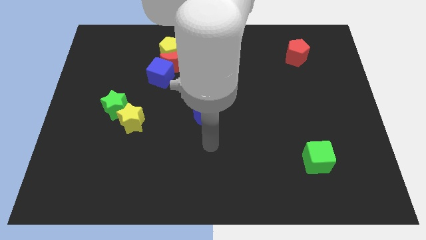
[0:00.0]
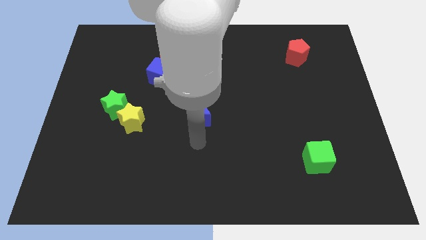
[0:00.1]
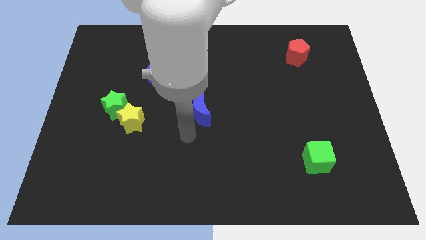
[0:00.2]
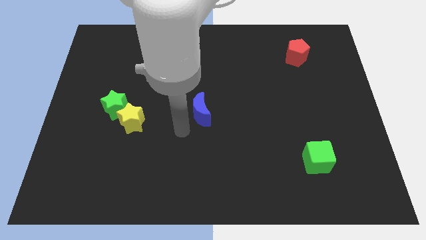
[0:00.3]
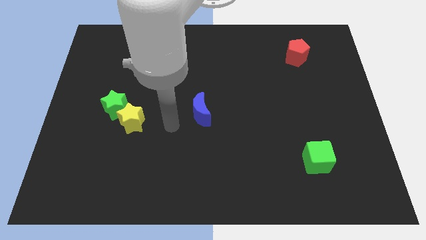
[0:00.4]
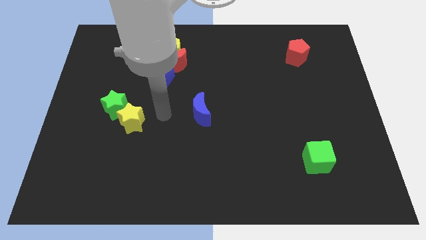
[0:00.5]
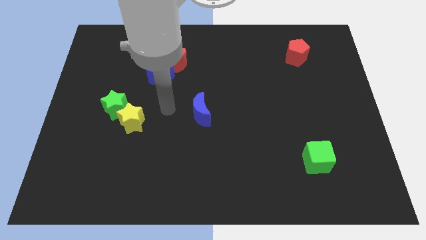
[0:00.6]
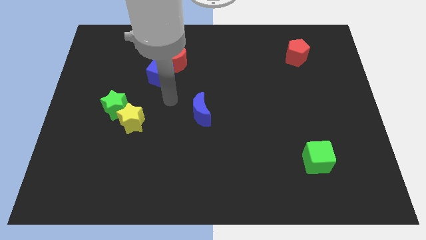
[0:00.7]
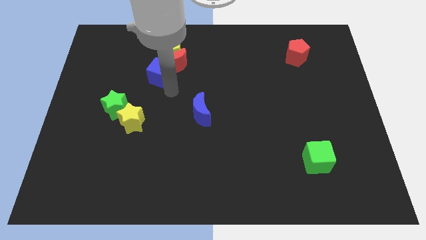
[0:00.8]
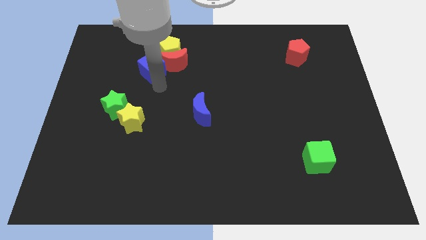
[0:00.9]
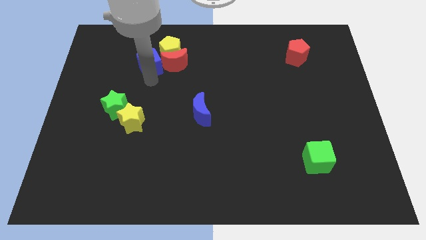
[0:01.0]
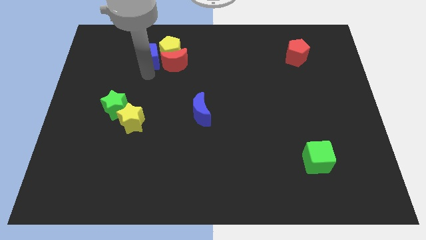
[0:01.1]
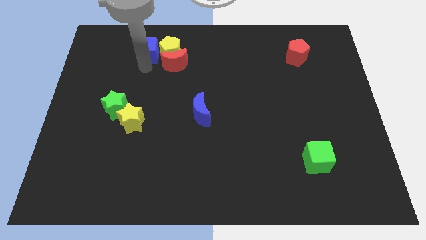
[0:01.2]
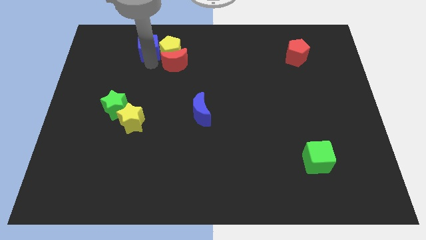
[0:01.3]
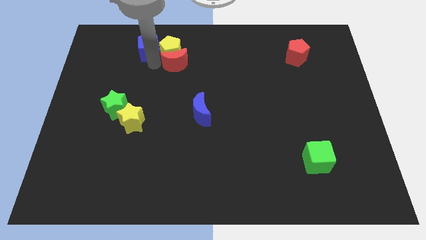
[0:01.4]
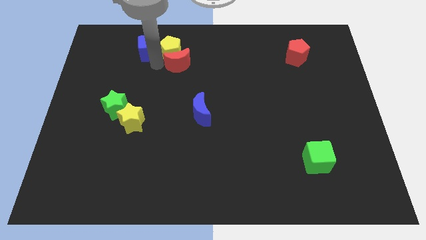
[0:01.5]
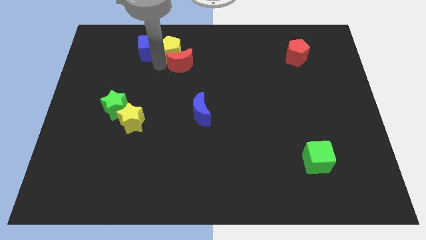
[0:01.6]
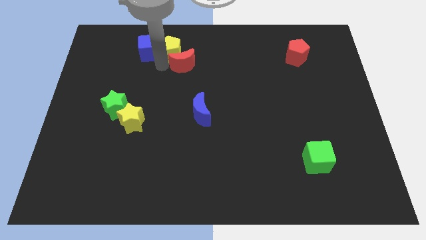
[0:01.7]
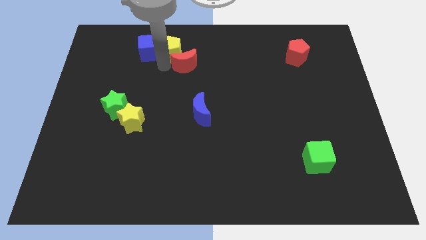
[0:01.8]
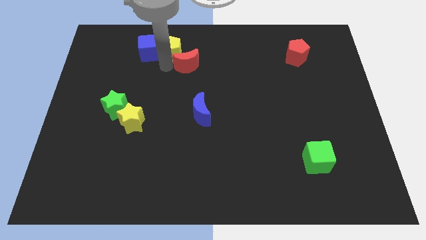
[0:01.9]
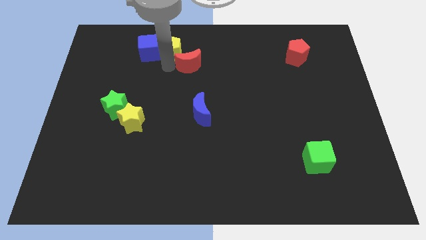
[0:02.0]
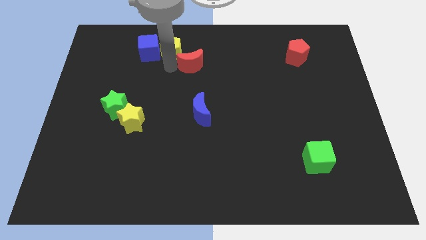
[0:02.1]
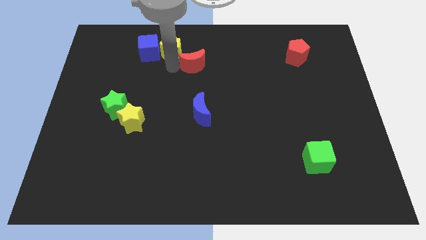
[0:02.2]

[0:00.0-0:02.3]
move the red moon away from the yellow pentagon and blue cube

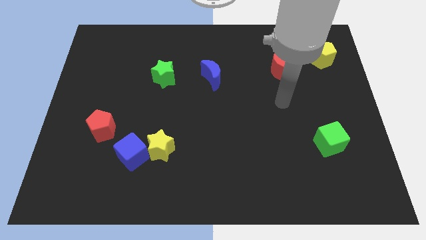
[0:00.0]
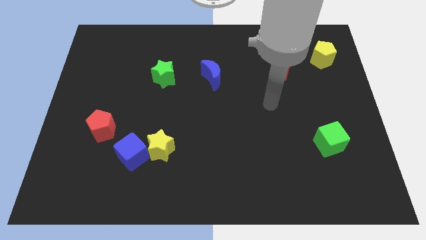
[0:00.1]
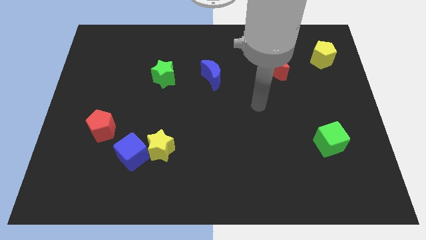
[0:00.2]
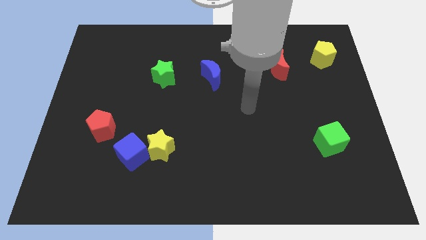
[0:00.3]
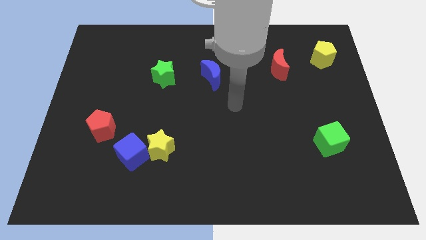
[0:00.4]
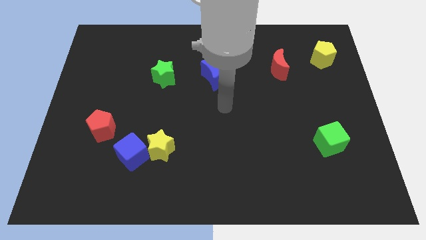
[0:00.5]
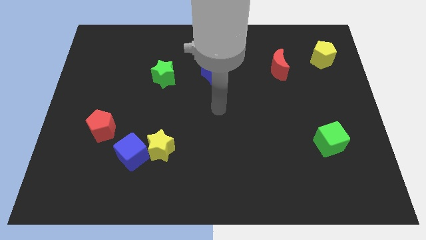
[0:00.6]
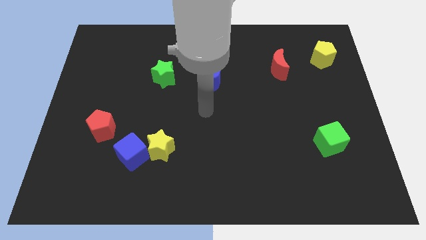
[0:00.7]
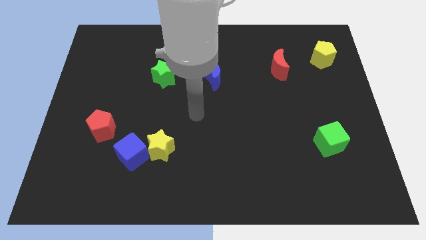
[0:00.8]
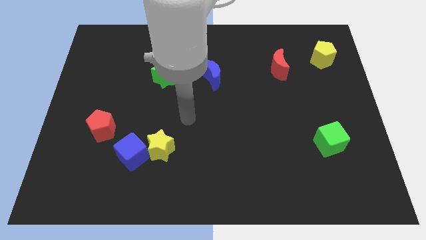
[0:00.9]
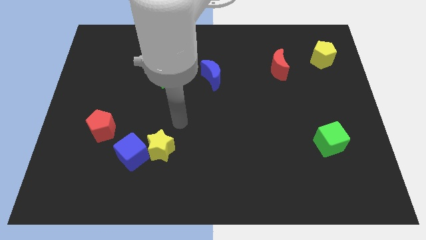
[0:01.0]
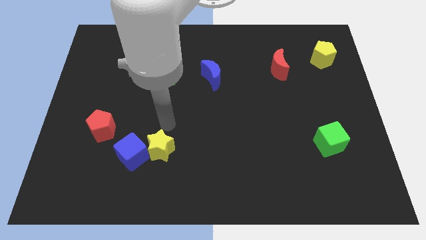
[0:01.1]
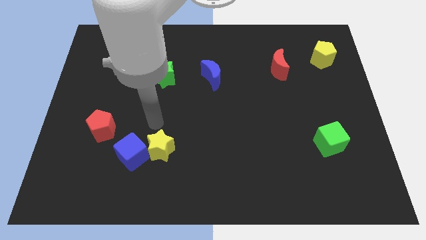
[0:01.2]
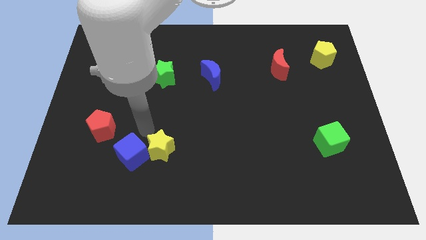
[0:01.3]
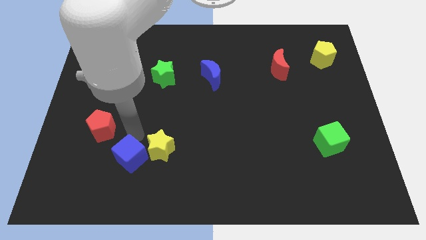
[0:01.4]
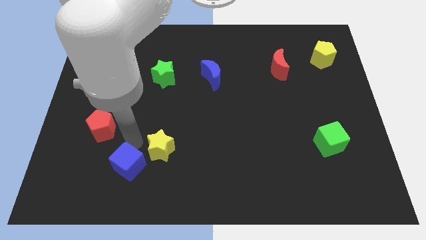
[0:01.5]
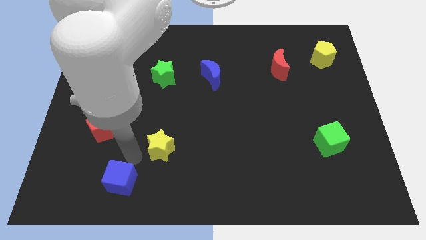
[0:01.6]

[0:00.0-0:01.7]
pull the yellow star apart from the blue cube

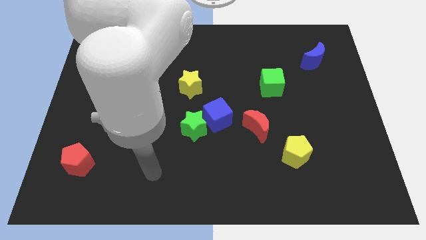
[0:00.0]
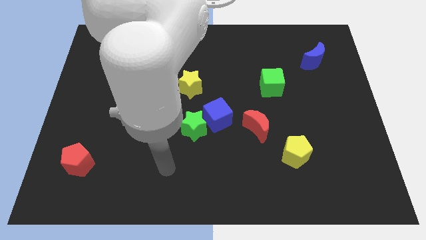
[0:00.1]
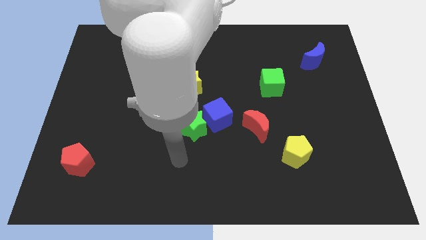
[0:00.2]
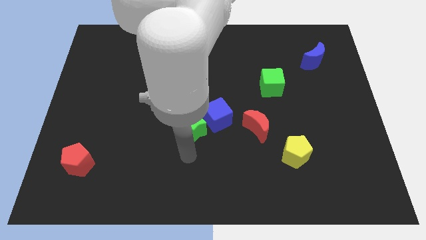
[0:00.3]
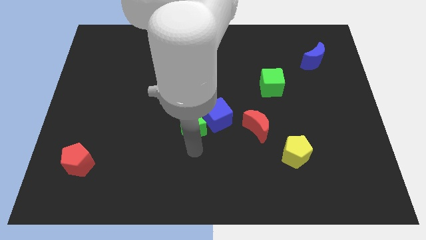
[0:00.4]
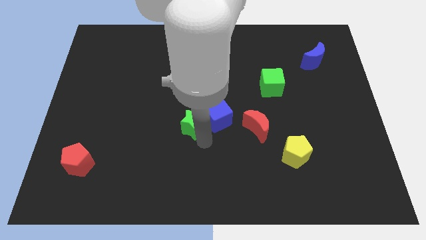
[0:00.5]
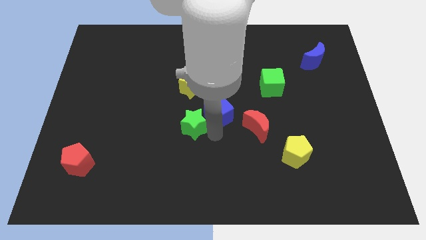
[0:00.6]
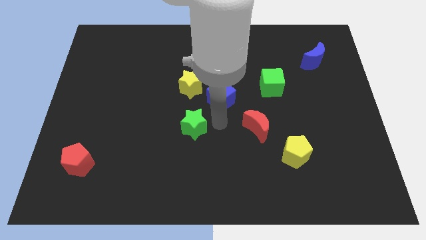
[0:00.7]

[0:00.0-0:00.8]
move the green star away from the blue cube

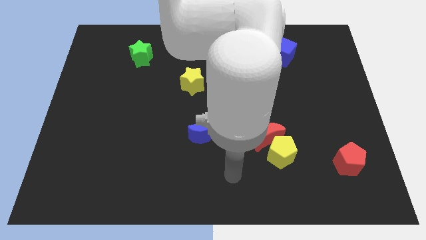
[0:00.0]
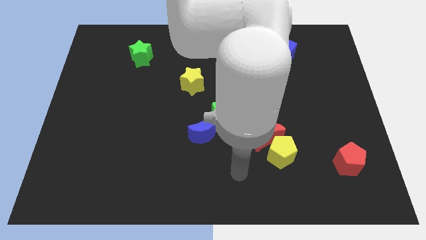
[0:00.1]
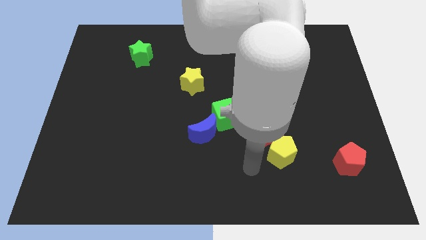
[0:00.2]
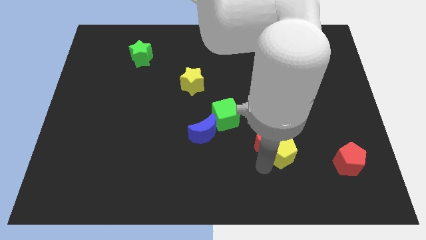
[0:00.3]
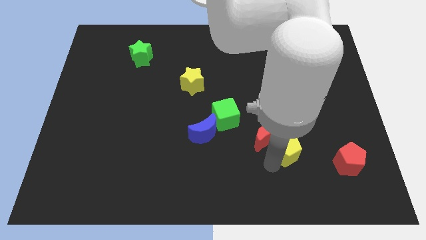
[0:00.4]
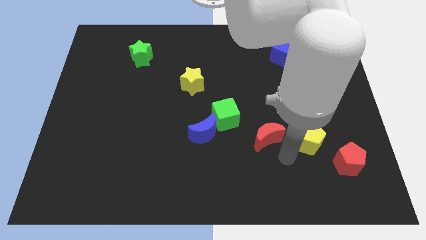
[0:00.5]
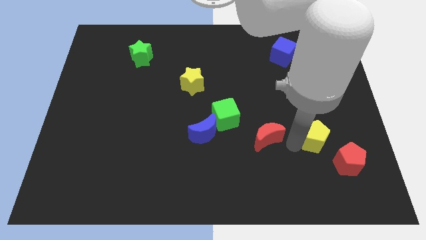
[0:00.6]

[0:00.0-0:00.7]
move the red moon away from the yellow pentagon

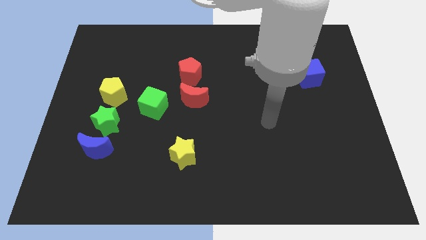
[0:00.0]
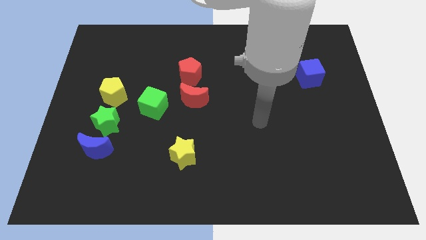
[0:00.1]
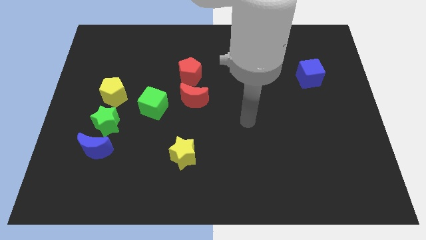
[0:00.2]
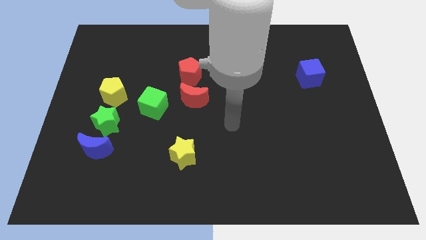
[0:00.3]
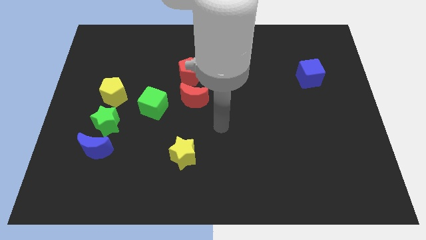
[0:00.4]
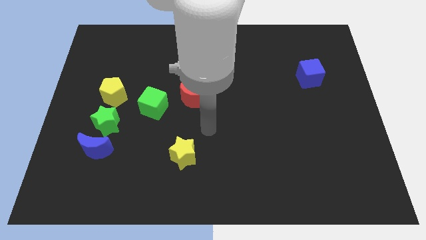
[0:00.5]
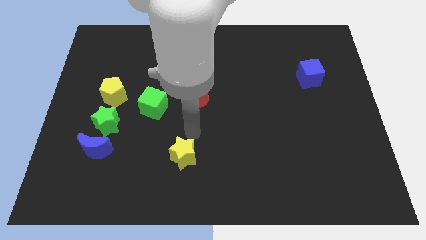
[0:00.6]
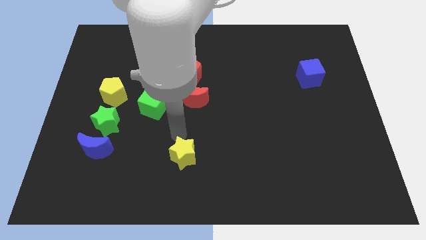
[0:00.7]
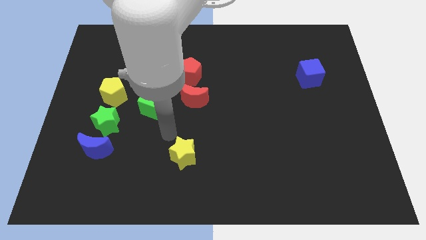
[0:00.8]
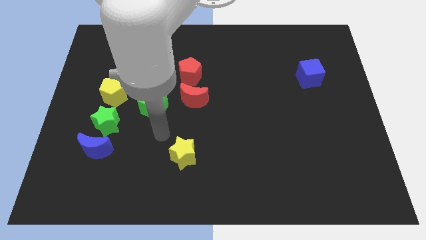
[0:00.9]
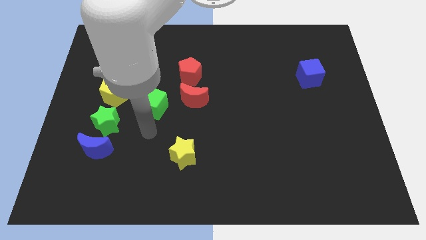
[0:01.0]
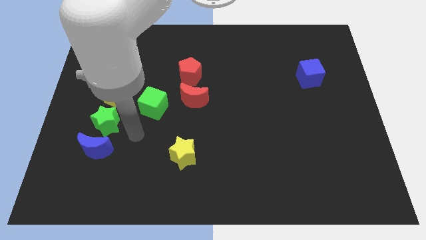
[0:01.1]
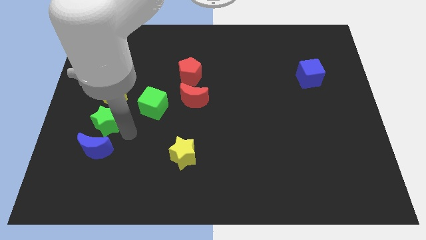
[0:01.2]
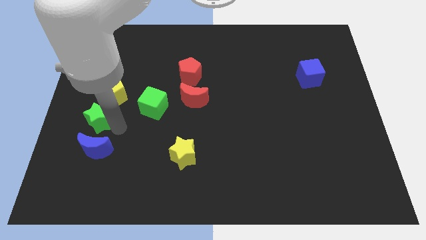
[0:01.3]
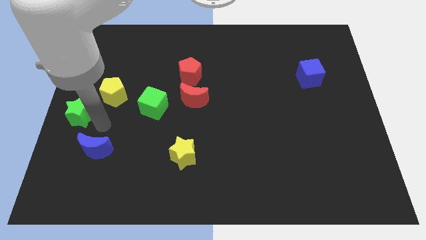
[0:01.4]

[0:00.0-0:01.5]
move the blue moon away from the green star

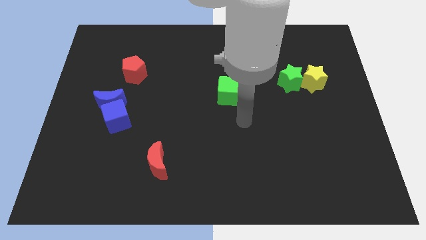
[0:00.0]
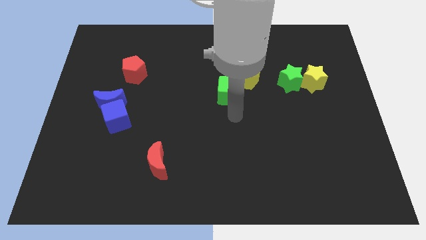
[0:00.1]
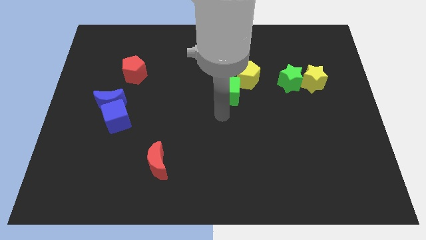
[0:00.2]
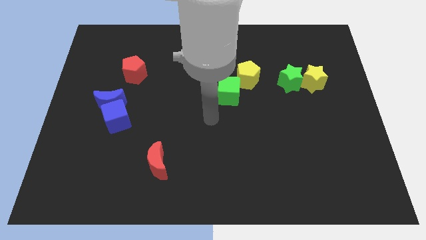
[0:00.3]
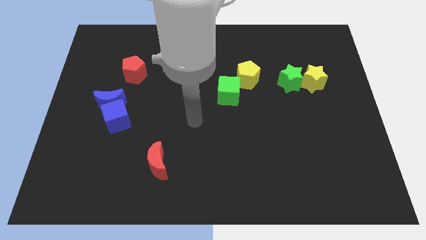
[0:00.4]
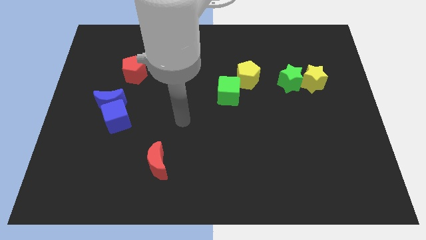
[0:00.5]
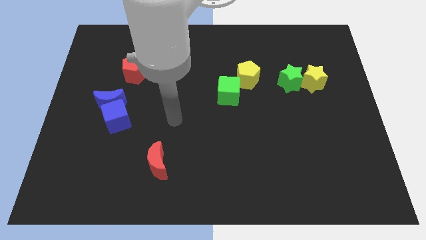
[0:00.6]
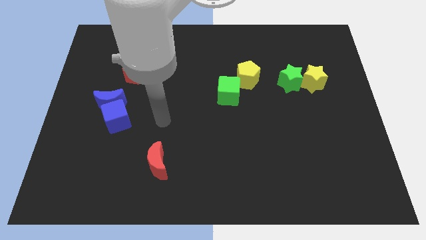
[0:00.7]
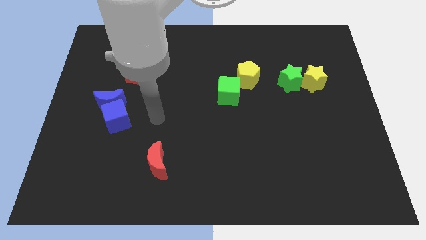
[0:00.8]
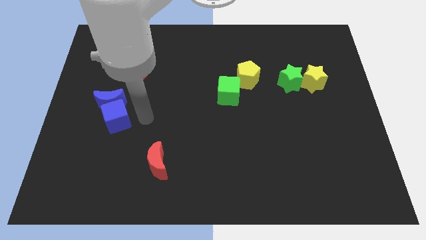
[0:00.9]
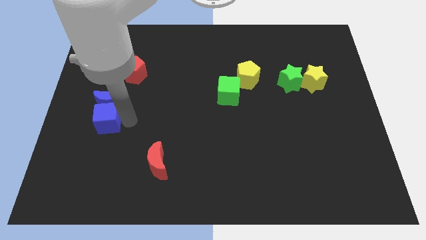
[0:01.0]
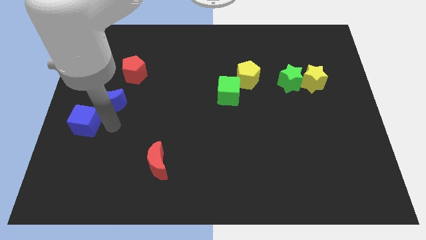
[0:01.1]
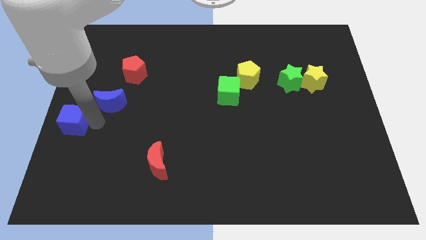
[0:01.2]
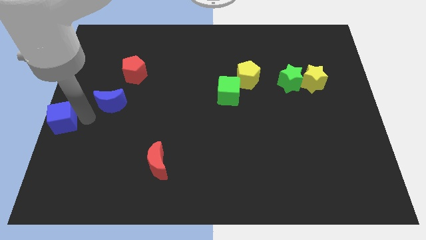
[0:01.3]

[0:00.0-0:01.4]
move the blue moon away from the blue cube

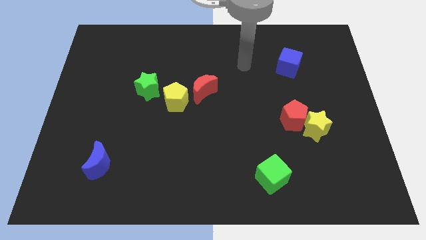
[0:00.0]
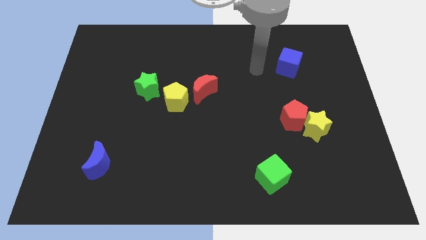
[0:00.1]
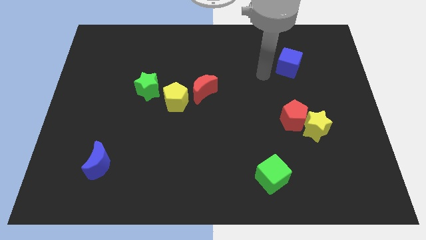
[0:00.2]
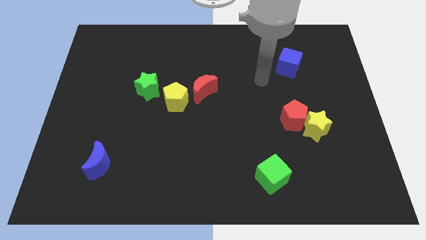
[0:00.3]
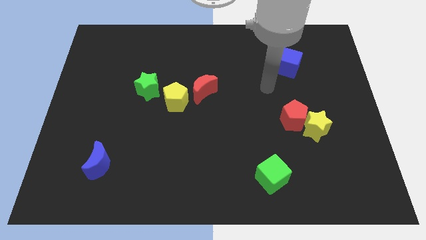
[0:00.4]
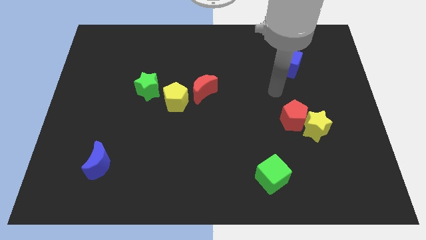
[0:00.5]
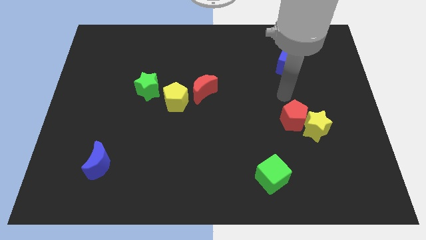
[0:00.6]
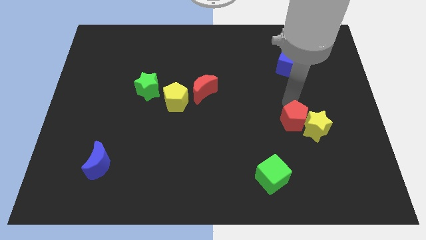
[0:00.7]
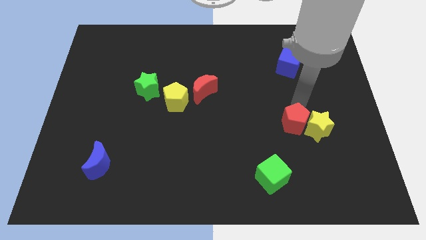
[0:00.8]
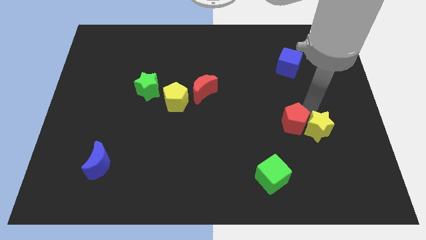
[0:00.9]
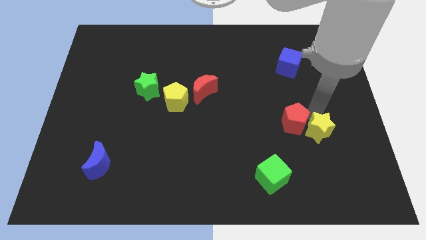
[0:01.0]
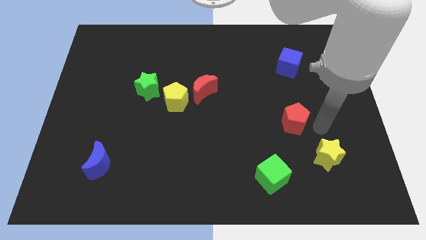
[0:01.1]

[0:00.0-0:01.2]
pull the red pentagon apart from the yellow star
